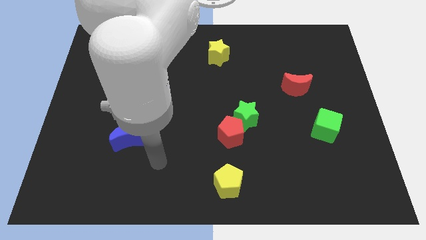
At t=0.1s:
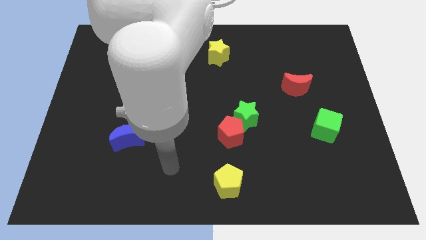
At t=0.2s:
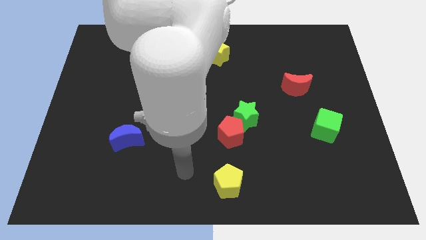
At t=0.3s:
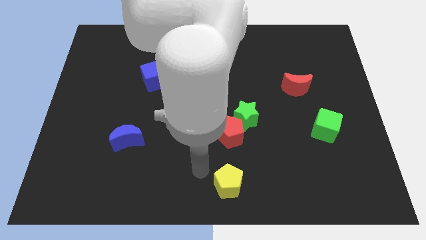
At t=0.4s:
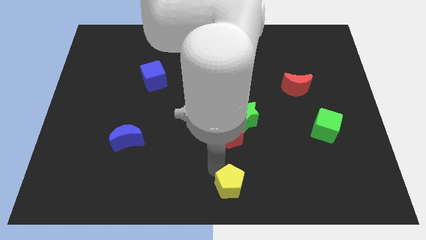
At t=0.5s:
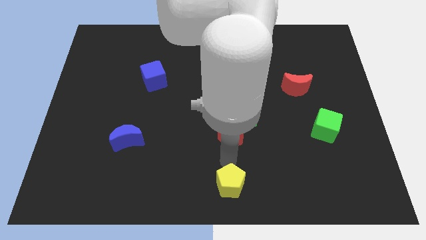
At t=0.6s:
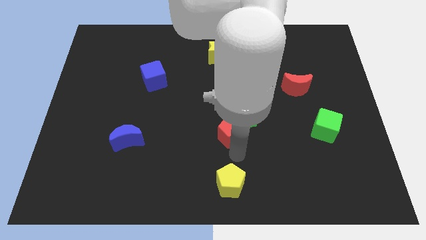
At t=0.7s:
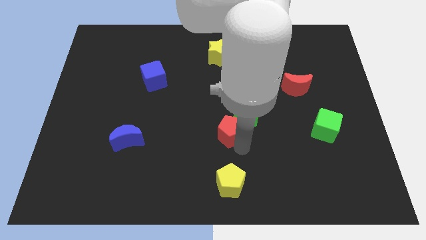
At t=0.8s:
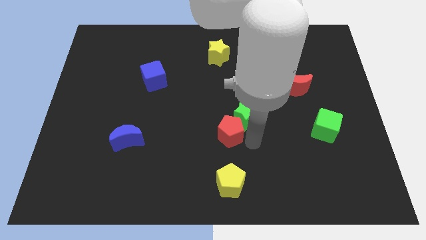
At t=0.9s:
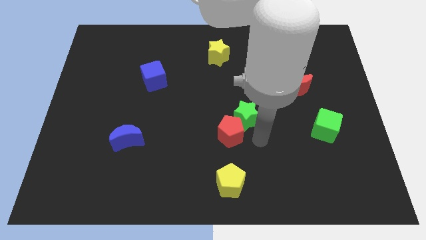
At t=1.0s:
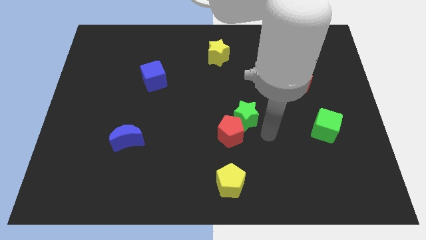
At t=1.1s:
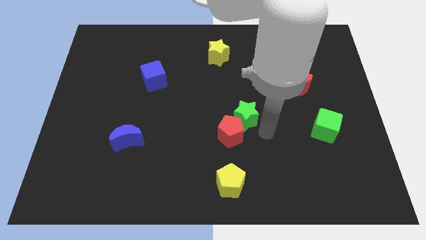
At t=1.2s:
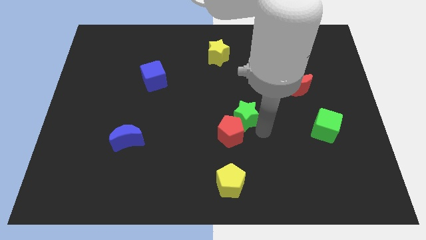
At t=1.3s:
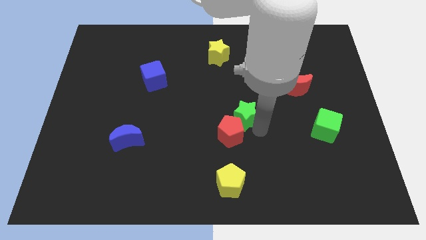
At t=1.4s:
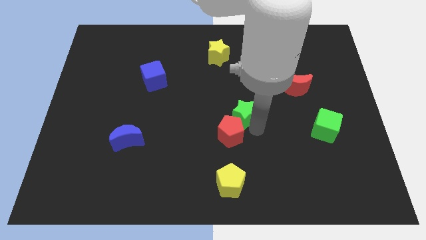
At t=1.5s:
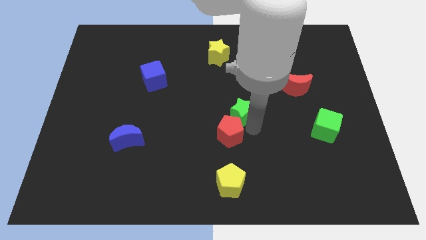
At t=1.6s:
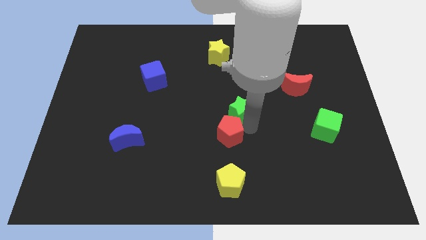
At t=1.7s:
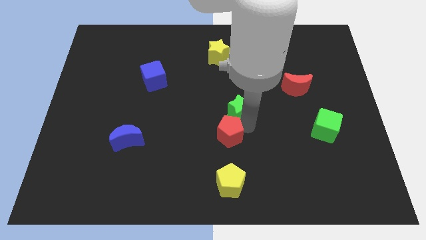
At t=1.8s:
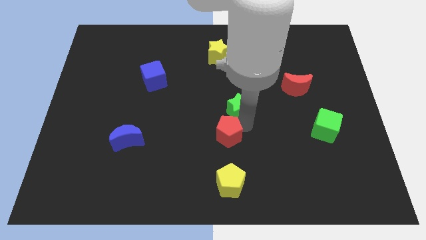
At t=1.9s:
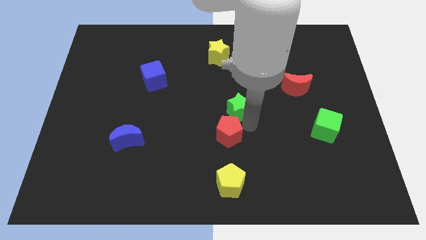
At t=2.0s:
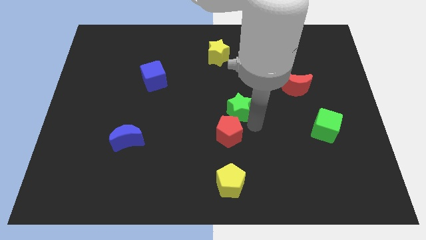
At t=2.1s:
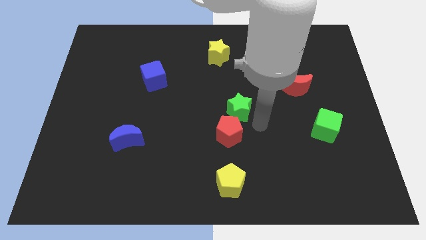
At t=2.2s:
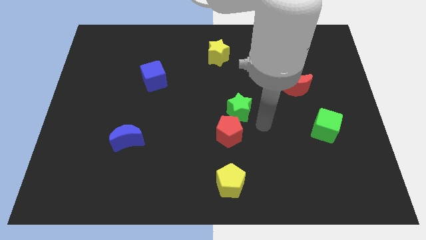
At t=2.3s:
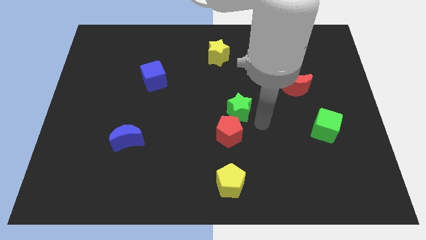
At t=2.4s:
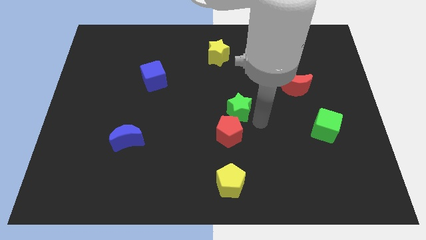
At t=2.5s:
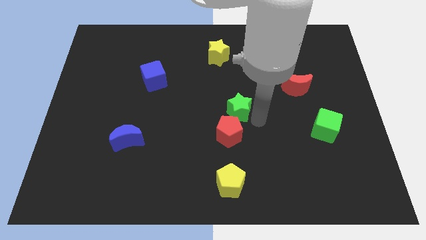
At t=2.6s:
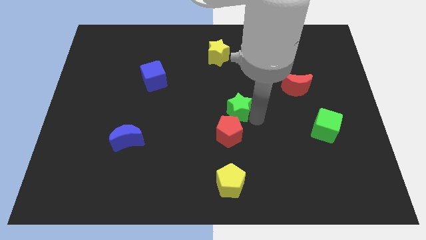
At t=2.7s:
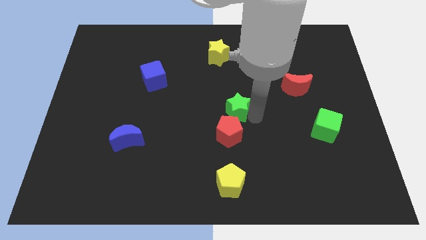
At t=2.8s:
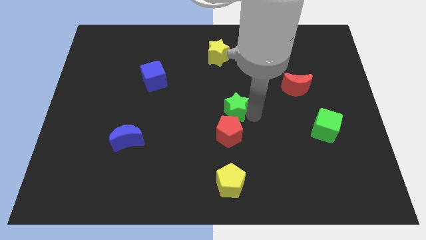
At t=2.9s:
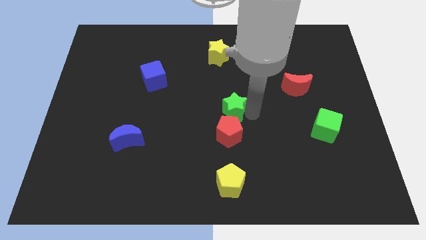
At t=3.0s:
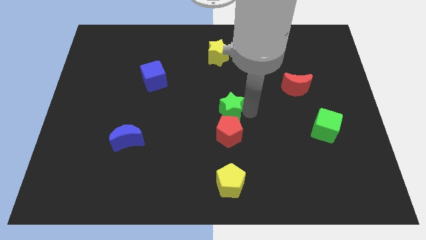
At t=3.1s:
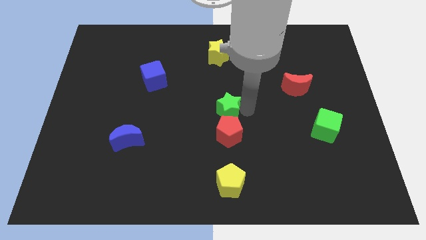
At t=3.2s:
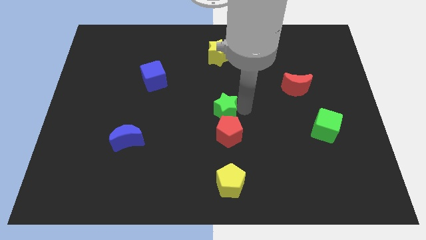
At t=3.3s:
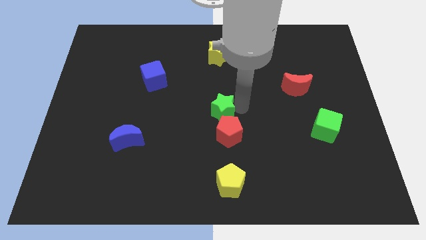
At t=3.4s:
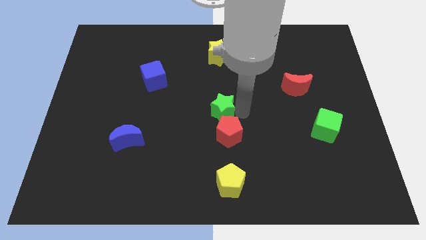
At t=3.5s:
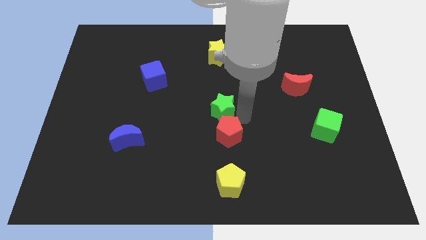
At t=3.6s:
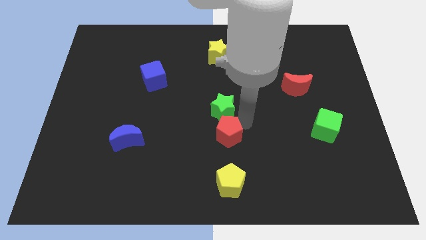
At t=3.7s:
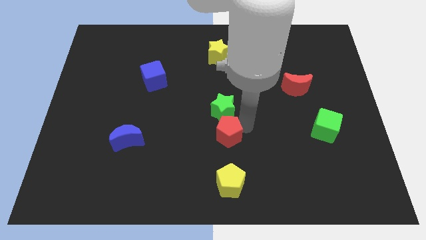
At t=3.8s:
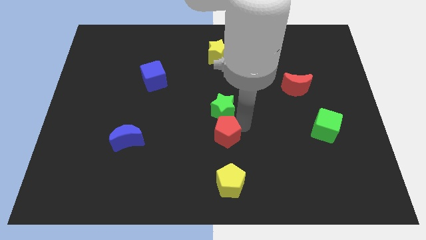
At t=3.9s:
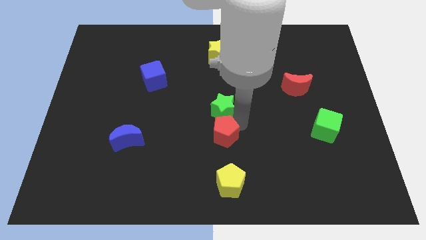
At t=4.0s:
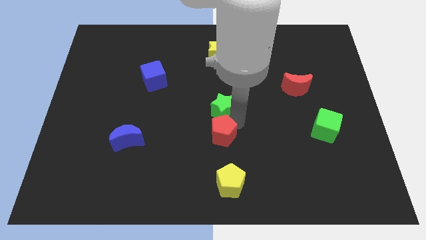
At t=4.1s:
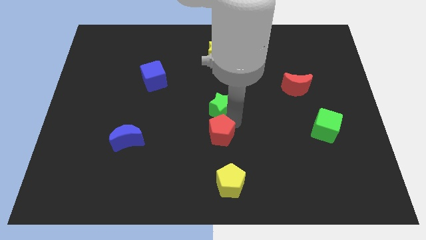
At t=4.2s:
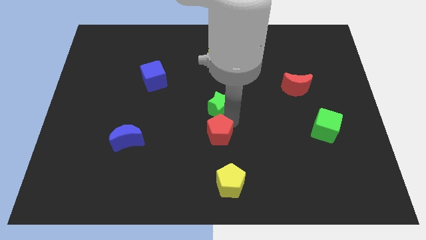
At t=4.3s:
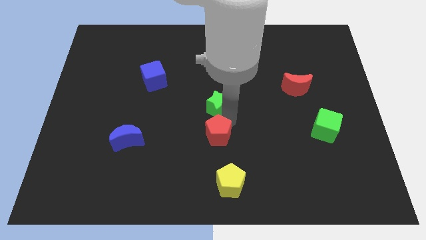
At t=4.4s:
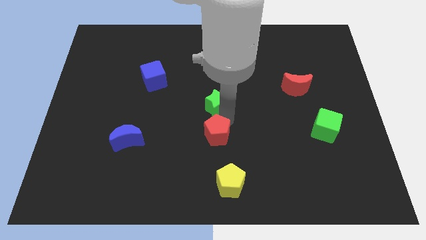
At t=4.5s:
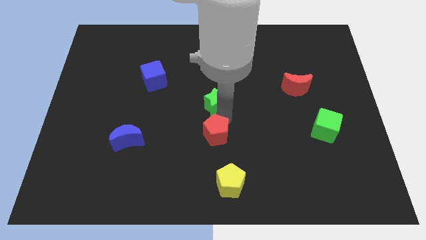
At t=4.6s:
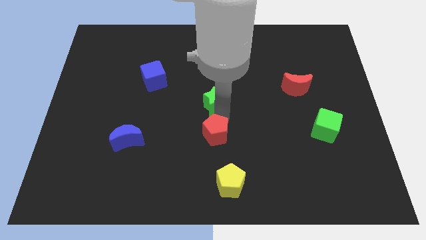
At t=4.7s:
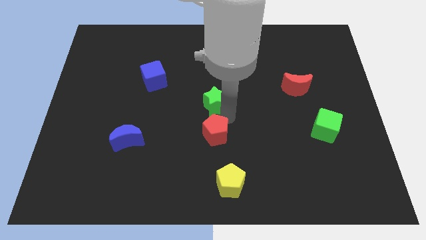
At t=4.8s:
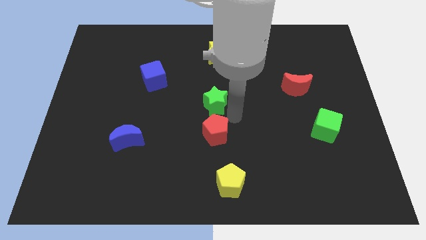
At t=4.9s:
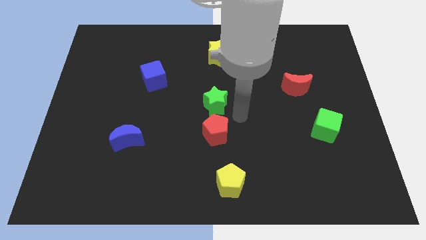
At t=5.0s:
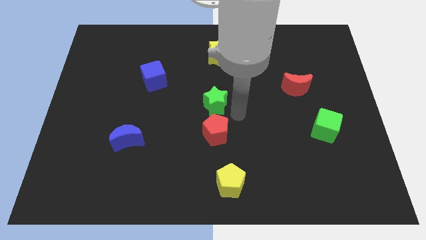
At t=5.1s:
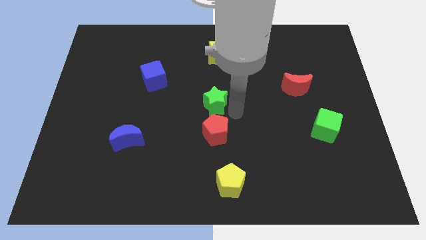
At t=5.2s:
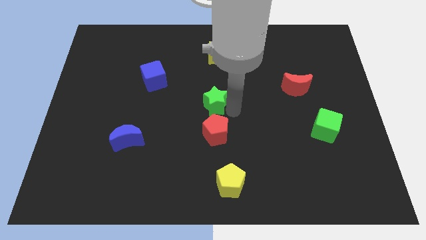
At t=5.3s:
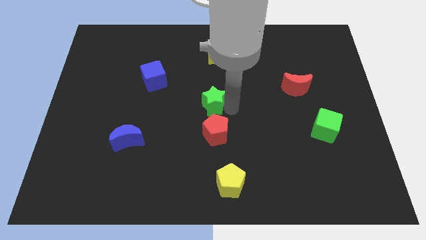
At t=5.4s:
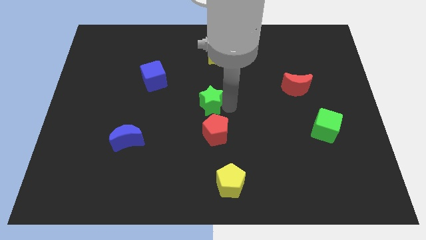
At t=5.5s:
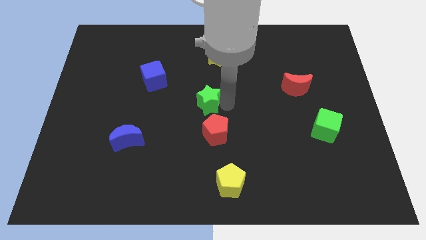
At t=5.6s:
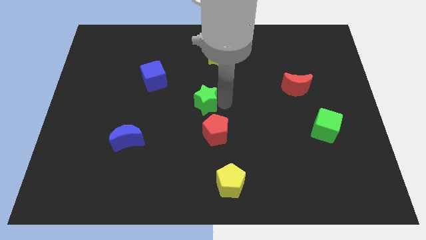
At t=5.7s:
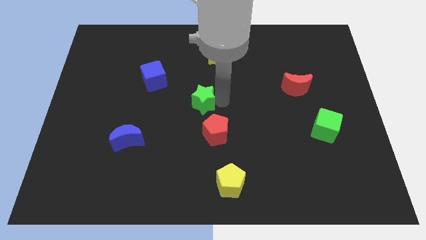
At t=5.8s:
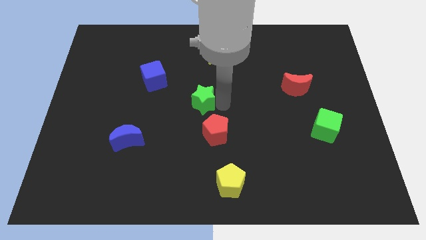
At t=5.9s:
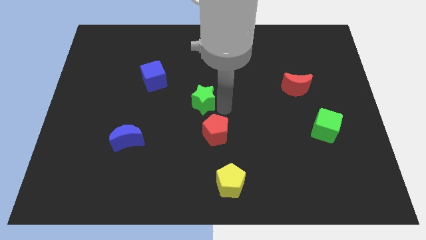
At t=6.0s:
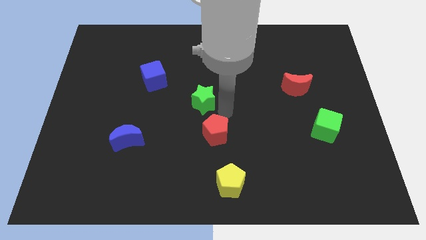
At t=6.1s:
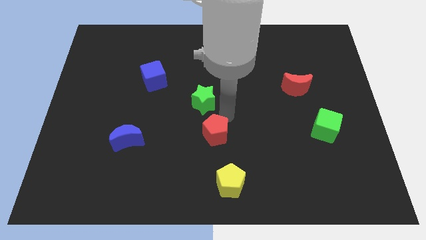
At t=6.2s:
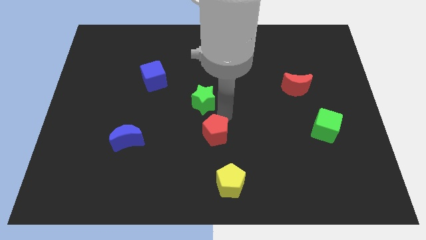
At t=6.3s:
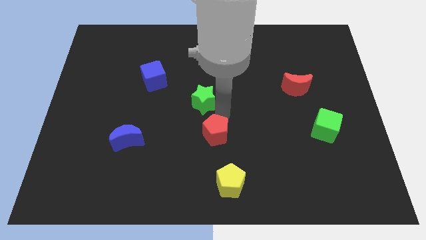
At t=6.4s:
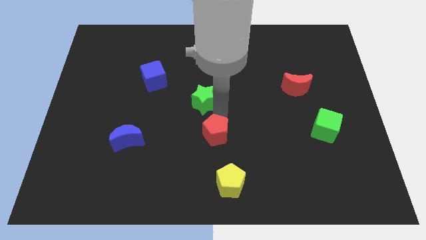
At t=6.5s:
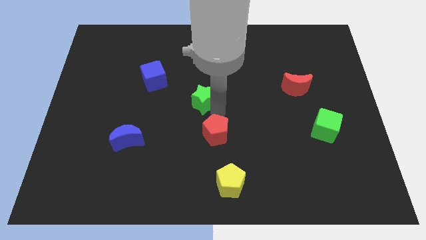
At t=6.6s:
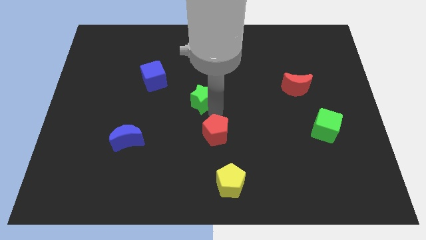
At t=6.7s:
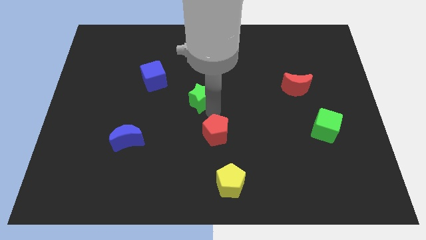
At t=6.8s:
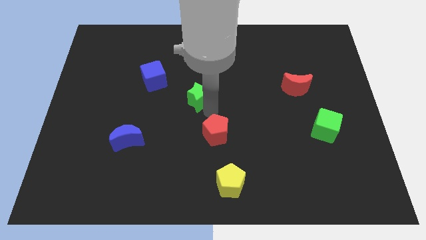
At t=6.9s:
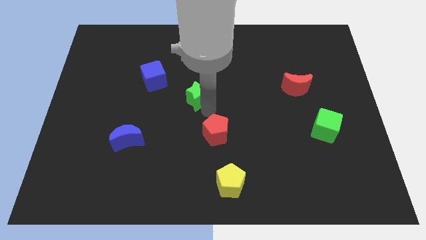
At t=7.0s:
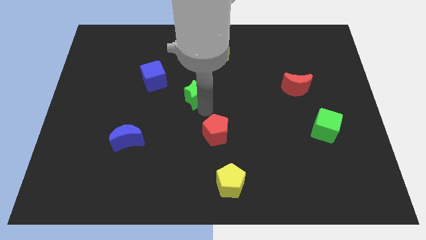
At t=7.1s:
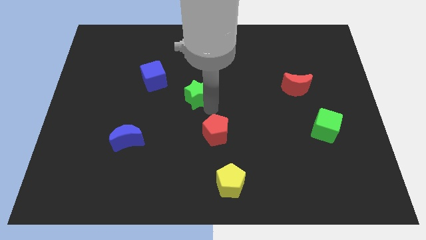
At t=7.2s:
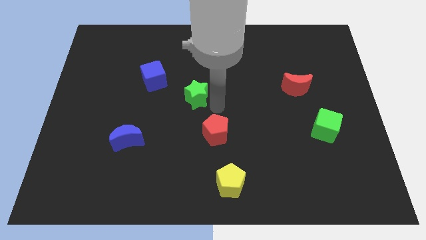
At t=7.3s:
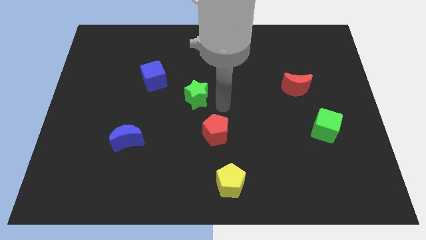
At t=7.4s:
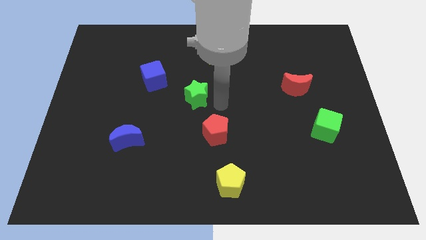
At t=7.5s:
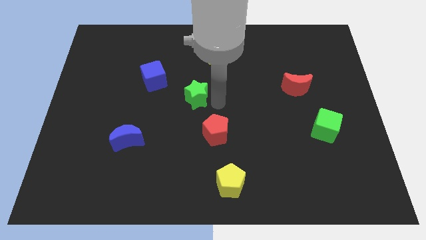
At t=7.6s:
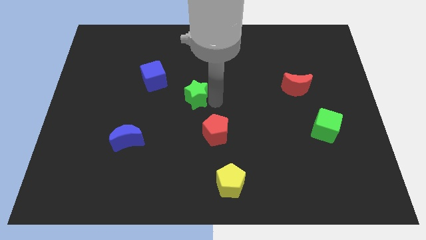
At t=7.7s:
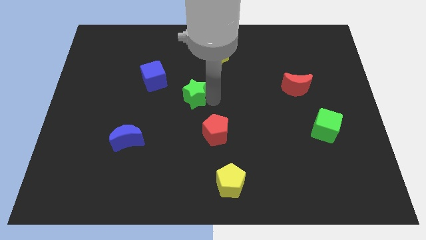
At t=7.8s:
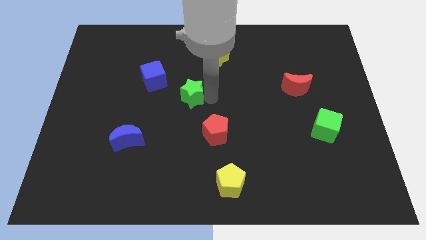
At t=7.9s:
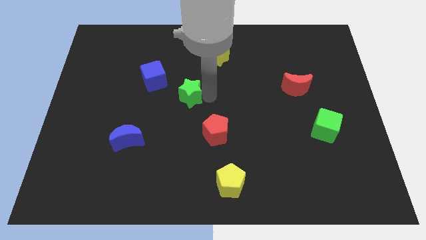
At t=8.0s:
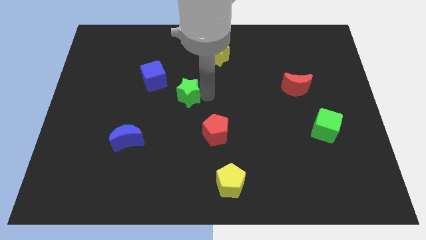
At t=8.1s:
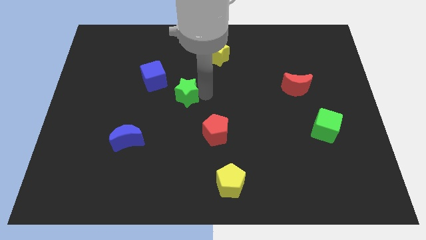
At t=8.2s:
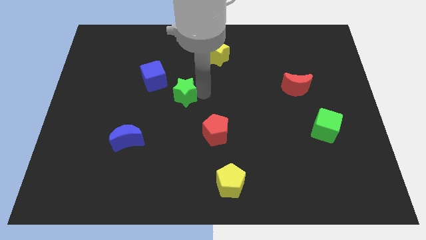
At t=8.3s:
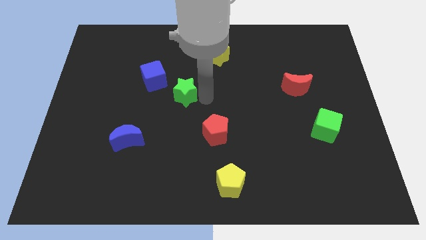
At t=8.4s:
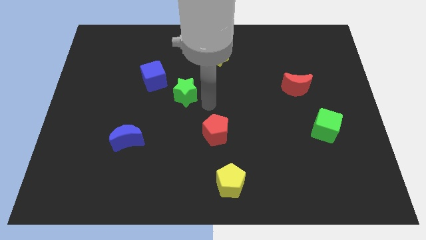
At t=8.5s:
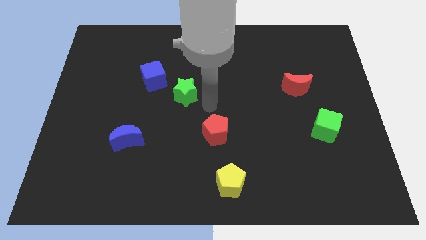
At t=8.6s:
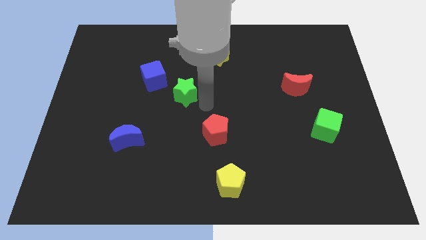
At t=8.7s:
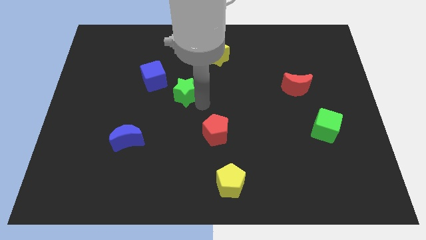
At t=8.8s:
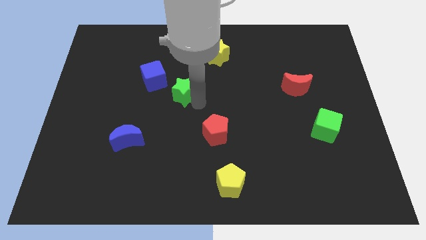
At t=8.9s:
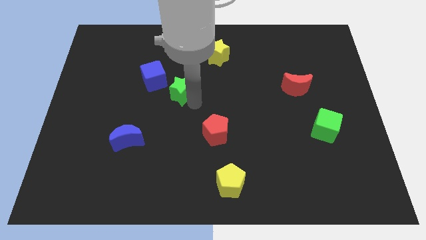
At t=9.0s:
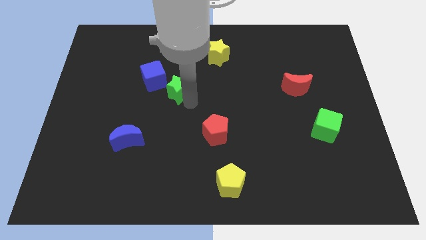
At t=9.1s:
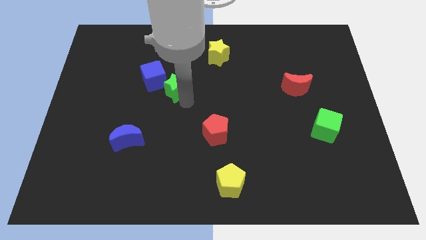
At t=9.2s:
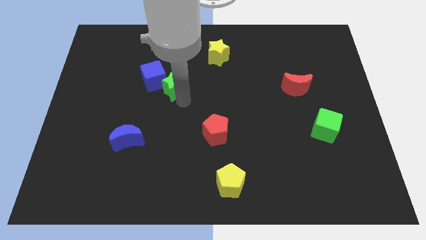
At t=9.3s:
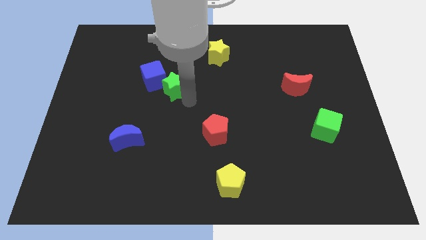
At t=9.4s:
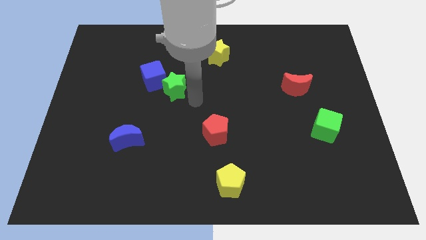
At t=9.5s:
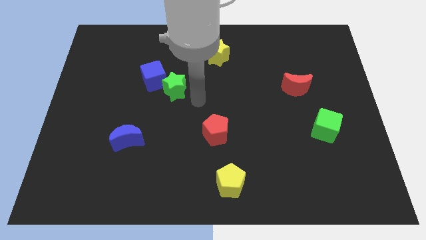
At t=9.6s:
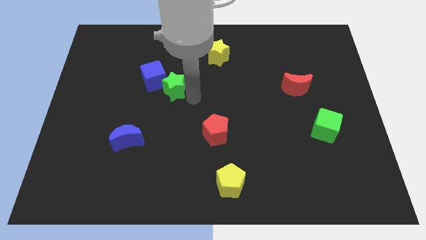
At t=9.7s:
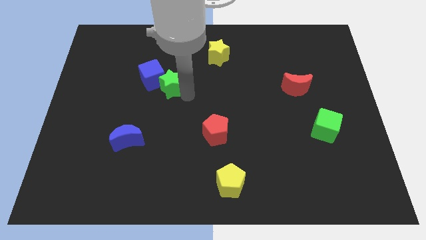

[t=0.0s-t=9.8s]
slide the green star towards the blue cube
